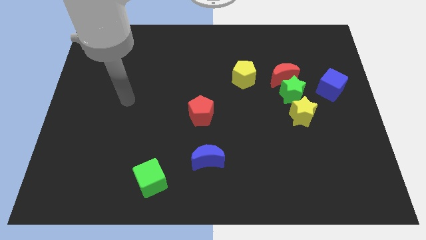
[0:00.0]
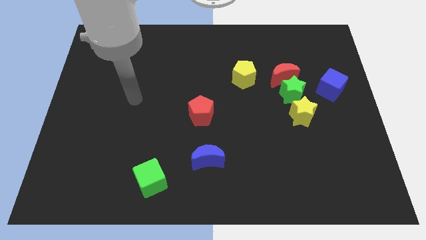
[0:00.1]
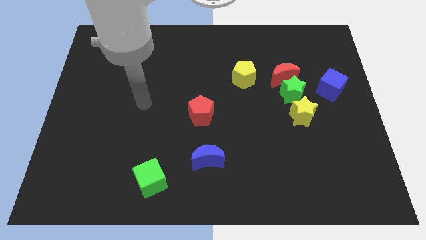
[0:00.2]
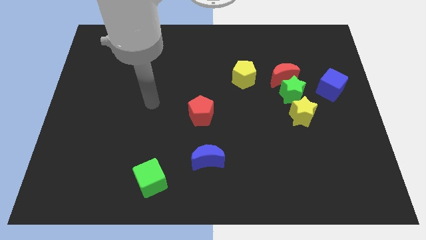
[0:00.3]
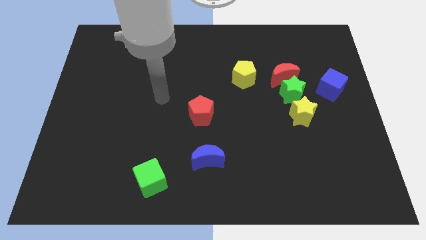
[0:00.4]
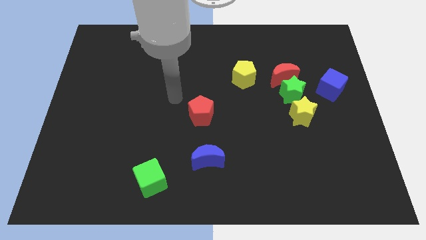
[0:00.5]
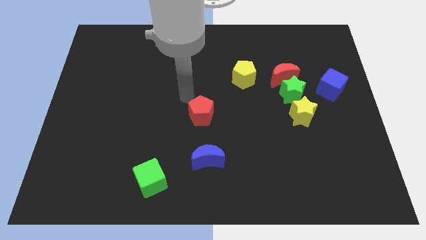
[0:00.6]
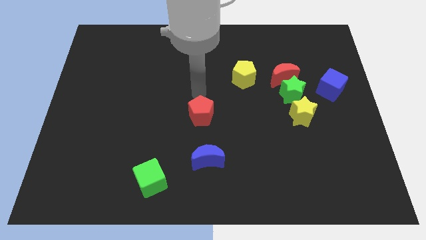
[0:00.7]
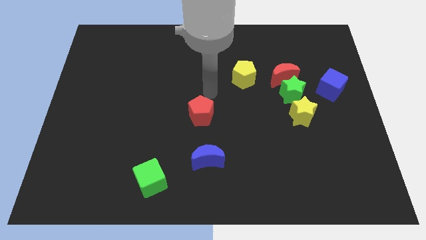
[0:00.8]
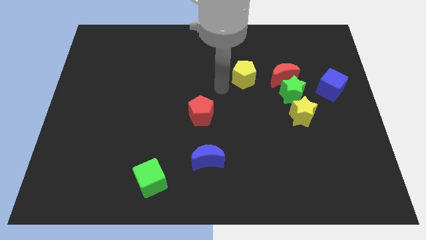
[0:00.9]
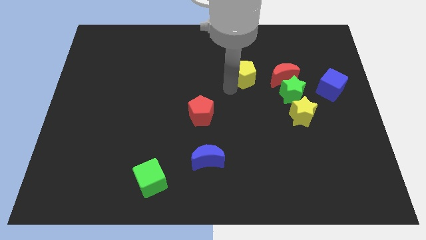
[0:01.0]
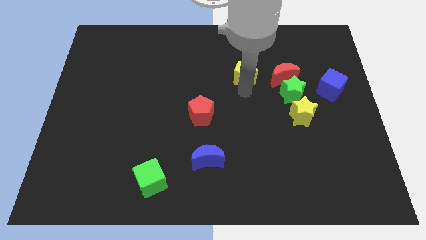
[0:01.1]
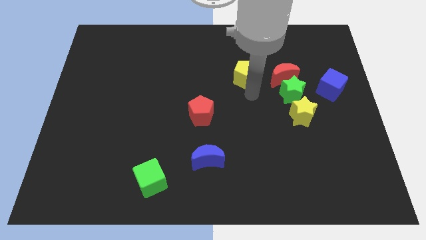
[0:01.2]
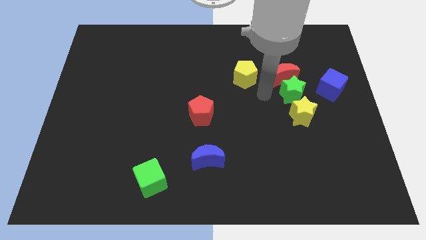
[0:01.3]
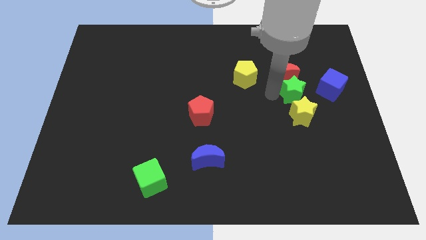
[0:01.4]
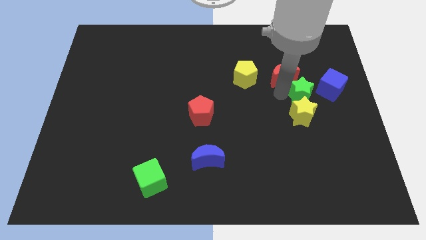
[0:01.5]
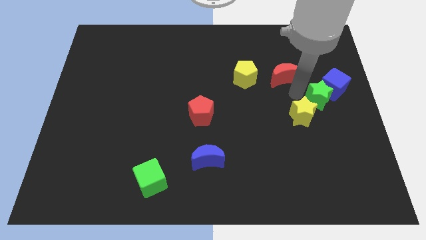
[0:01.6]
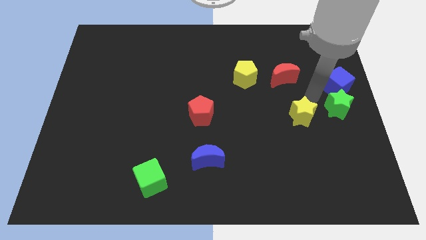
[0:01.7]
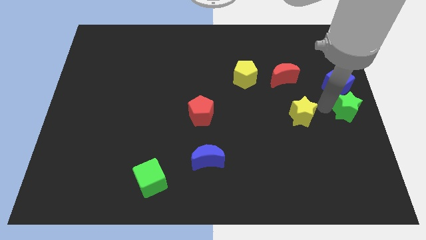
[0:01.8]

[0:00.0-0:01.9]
pull the yellow star apart from the green star

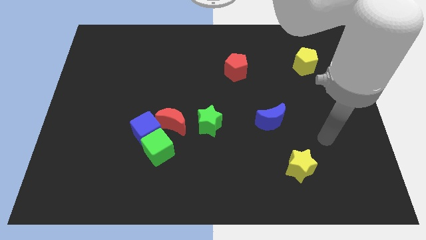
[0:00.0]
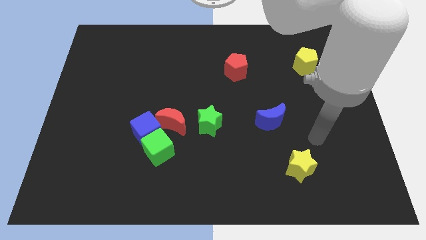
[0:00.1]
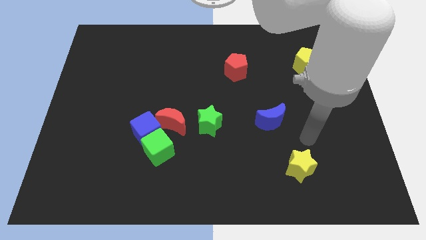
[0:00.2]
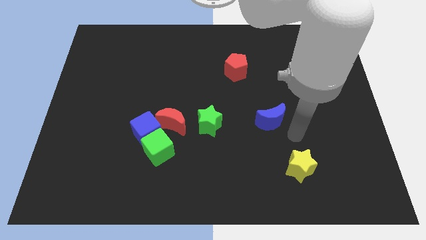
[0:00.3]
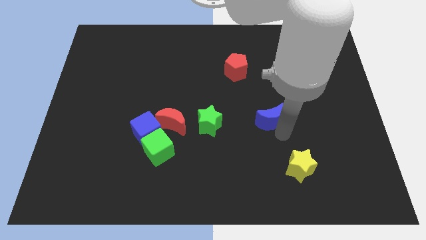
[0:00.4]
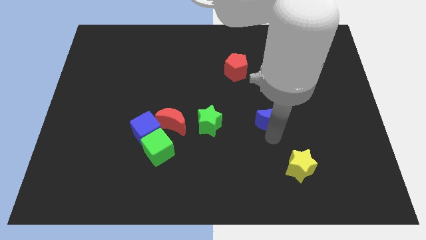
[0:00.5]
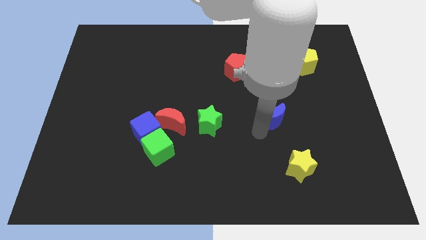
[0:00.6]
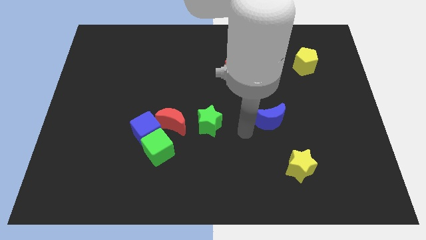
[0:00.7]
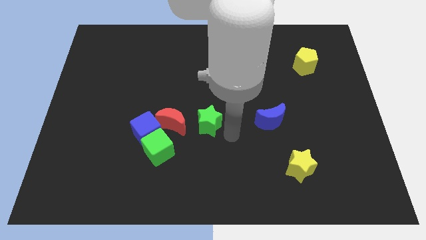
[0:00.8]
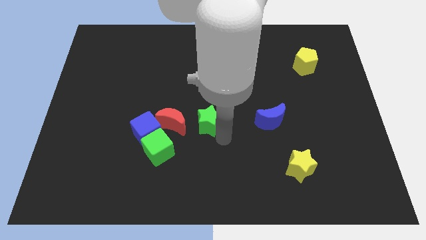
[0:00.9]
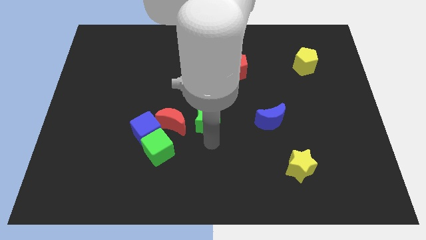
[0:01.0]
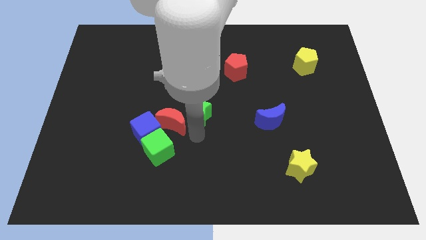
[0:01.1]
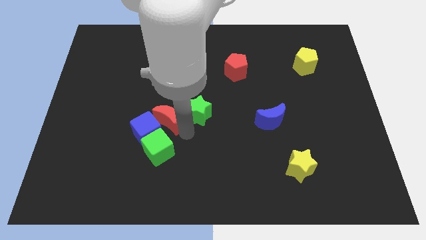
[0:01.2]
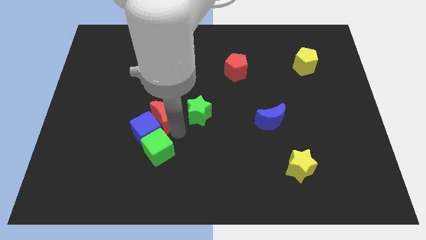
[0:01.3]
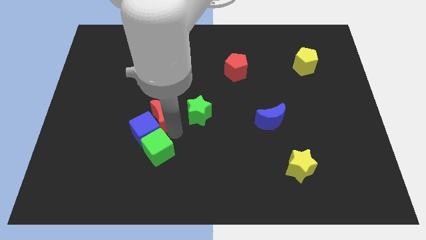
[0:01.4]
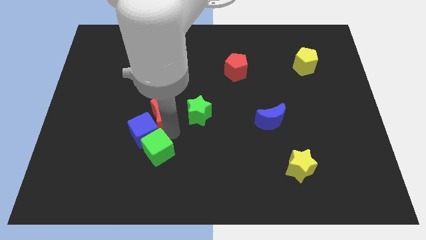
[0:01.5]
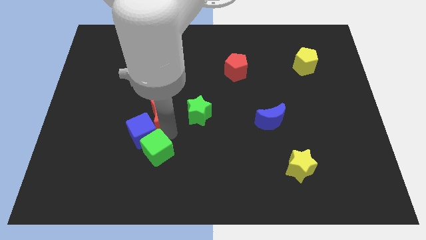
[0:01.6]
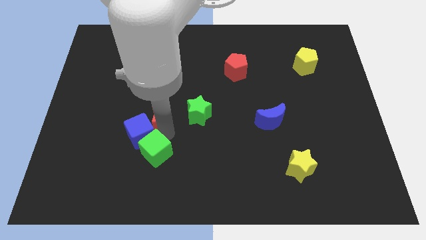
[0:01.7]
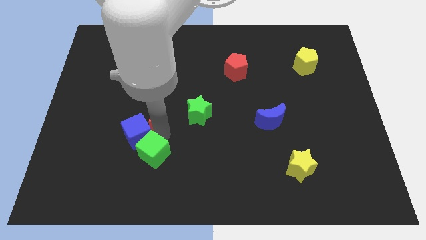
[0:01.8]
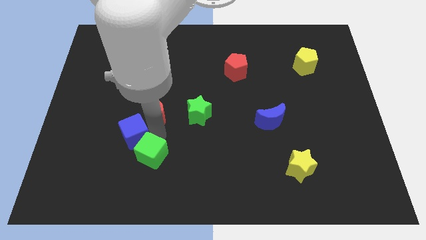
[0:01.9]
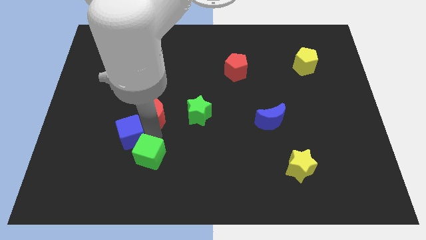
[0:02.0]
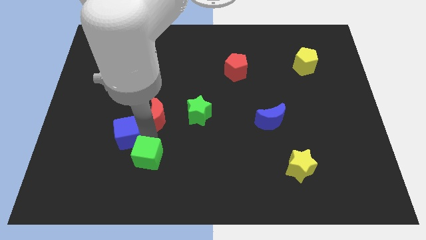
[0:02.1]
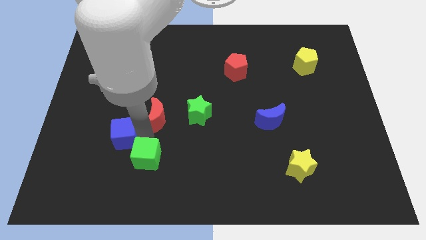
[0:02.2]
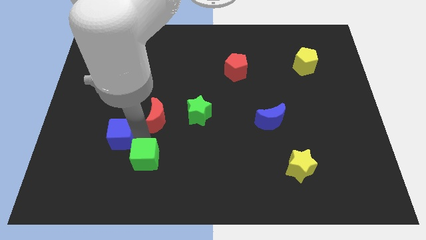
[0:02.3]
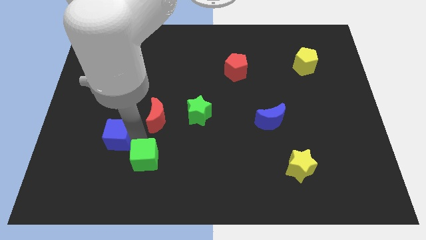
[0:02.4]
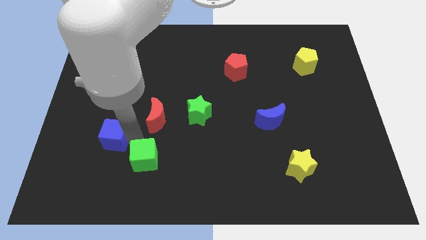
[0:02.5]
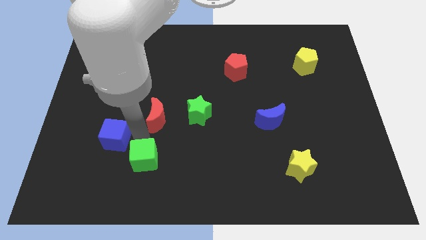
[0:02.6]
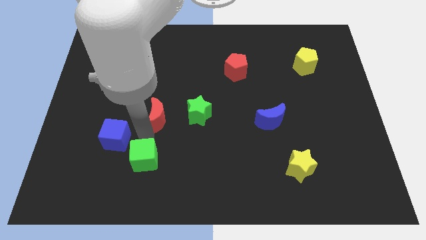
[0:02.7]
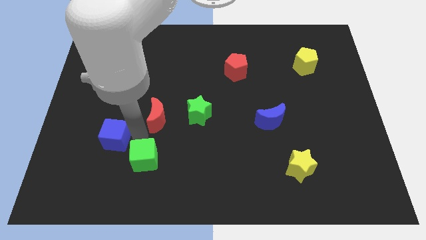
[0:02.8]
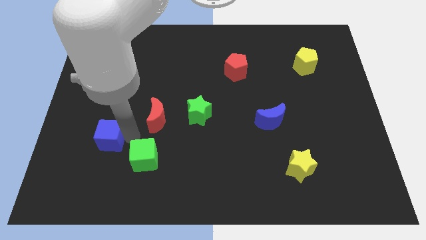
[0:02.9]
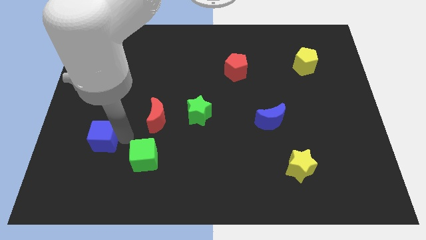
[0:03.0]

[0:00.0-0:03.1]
move the blue cube away from the green cube and red moon

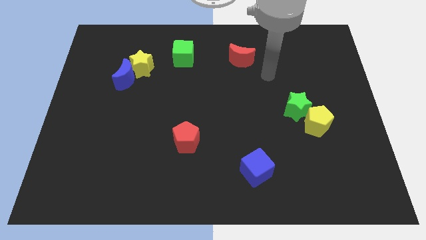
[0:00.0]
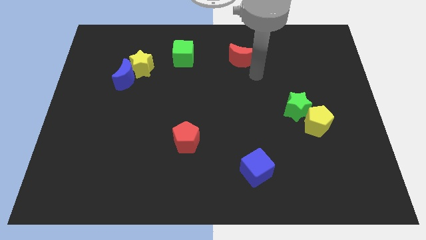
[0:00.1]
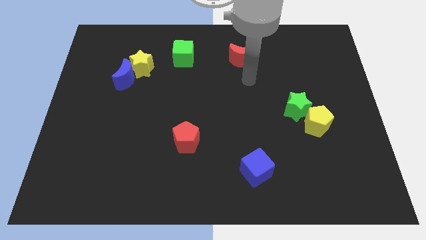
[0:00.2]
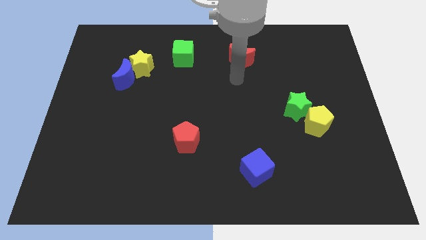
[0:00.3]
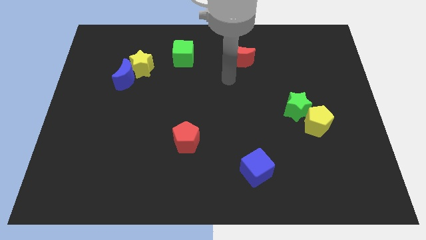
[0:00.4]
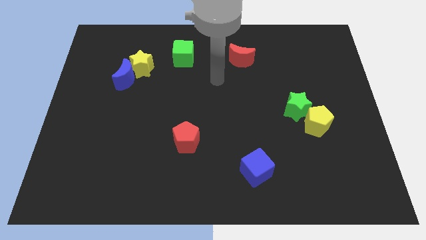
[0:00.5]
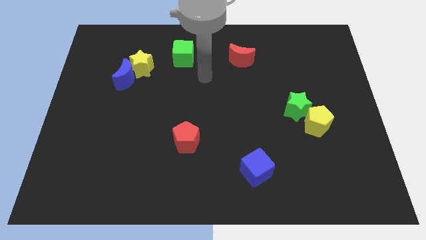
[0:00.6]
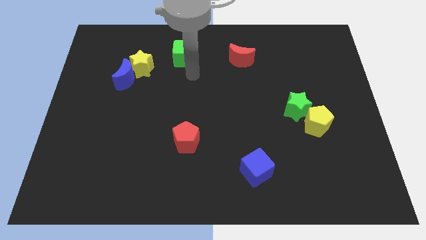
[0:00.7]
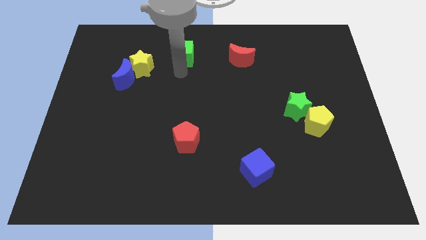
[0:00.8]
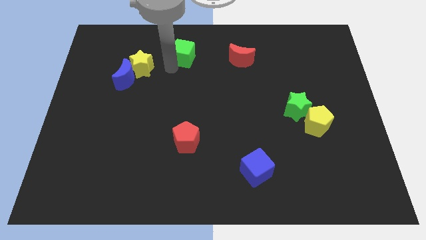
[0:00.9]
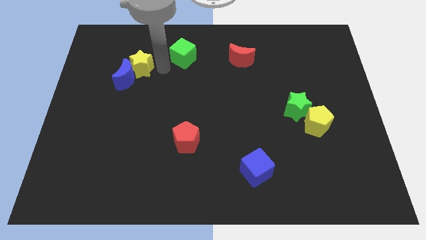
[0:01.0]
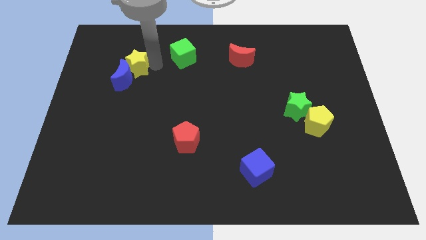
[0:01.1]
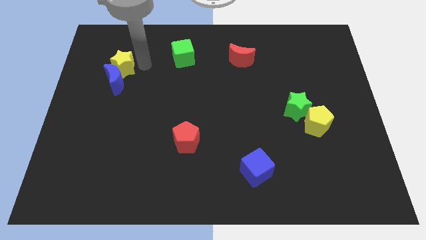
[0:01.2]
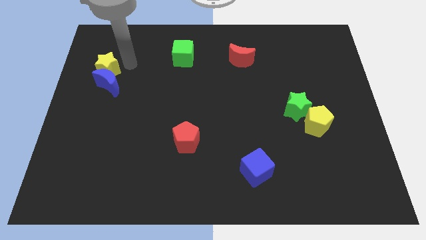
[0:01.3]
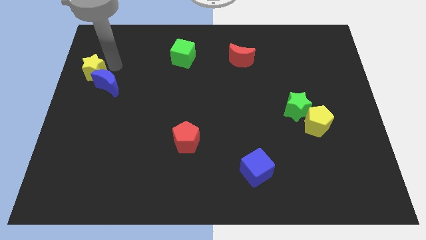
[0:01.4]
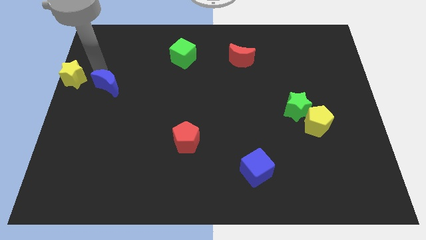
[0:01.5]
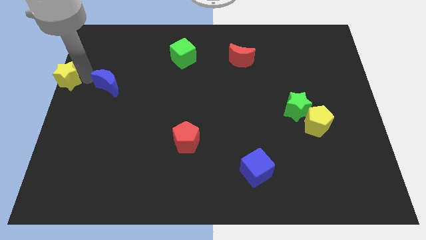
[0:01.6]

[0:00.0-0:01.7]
pull the blue moon apart from the yellow star

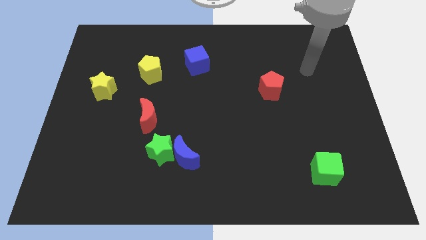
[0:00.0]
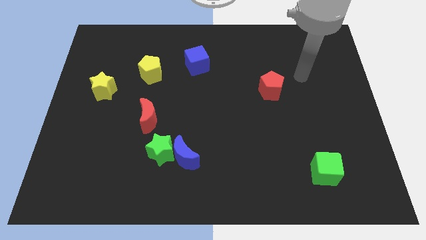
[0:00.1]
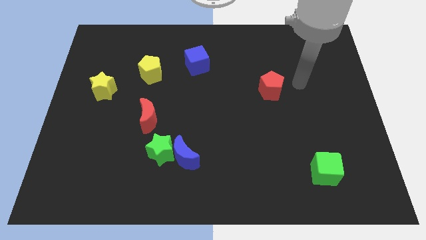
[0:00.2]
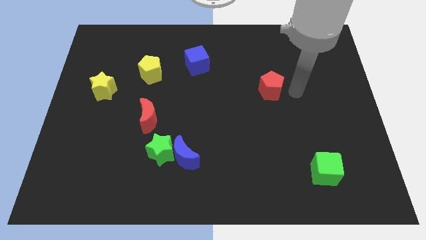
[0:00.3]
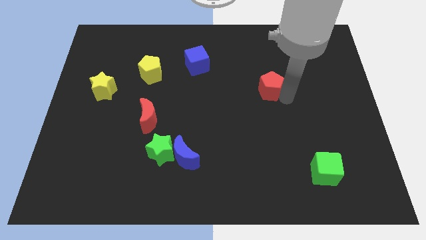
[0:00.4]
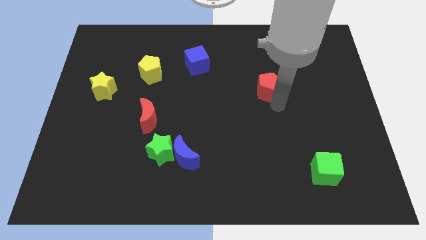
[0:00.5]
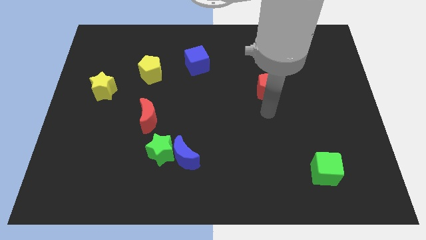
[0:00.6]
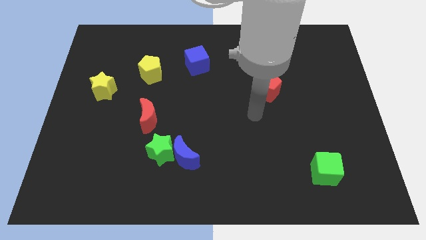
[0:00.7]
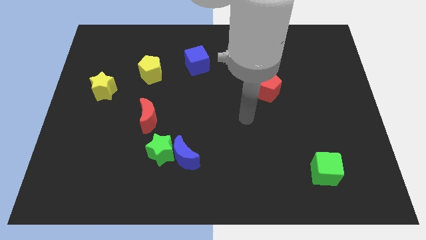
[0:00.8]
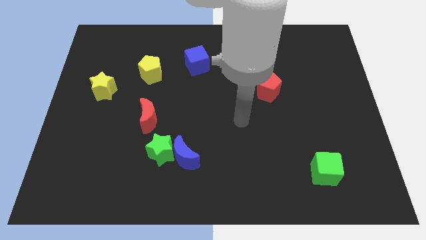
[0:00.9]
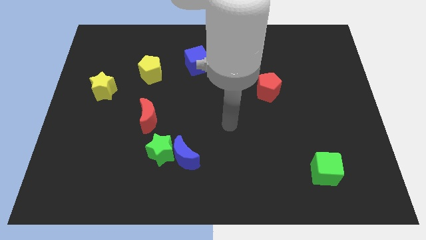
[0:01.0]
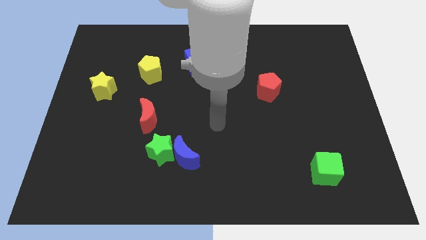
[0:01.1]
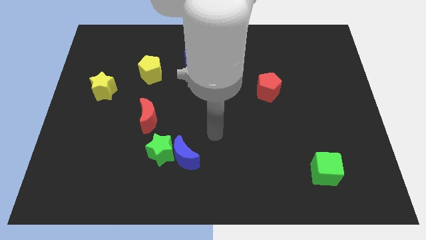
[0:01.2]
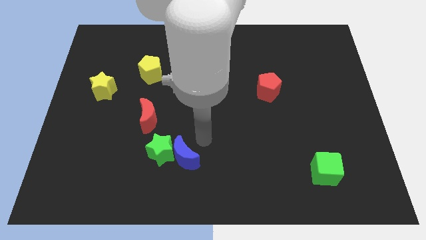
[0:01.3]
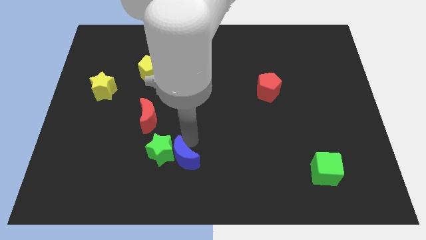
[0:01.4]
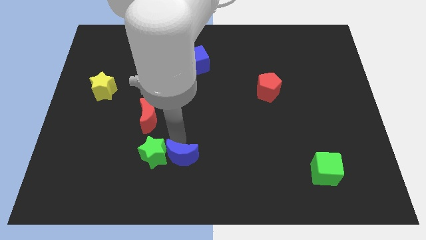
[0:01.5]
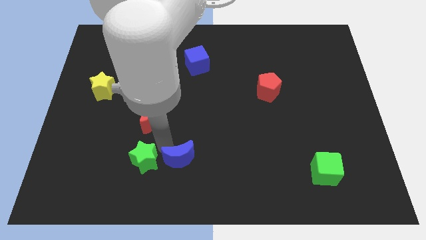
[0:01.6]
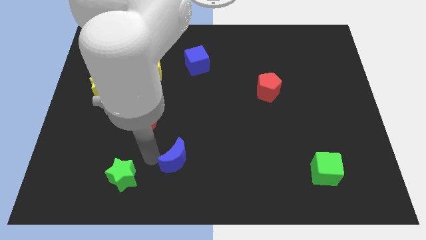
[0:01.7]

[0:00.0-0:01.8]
separate the blue moon from the green star

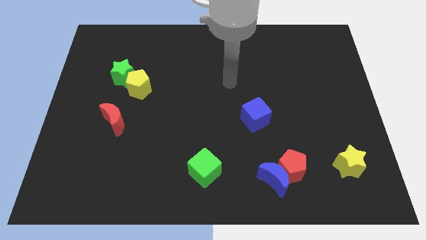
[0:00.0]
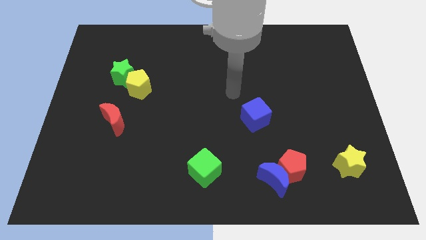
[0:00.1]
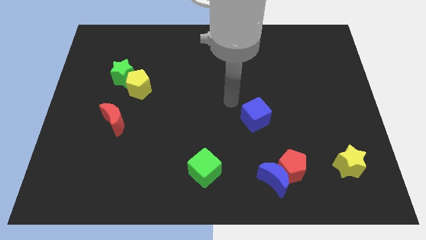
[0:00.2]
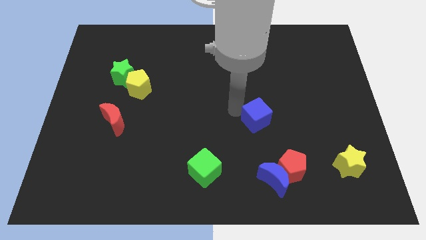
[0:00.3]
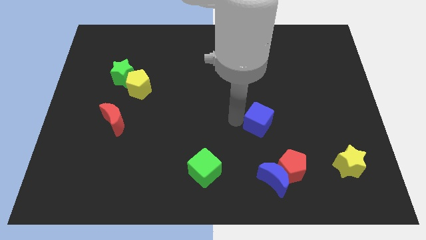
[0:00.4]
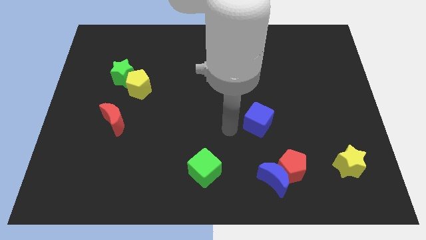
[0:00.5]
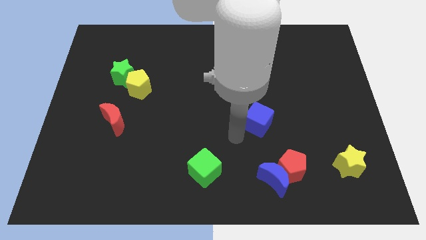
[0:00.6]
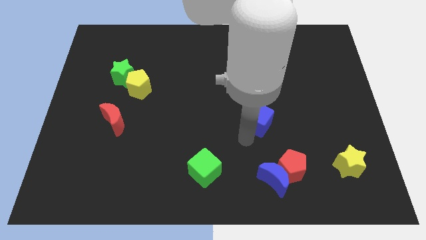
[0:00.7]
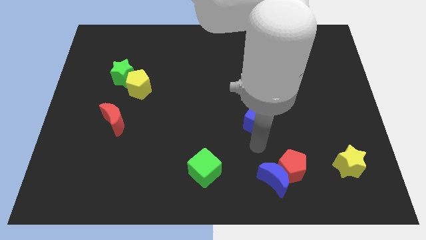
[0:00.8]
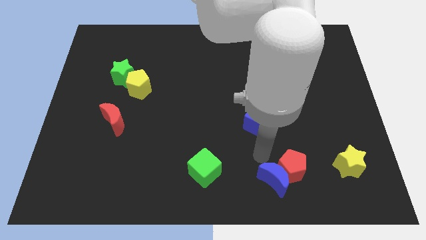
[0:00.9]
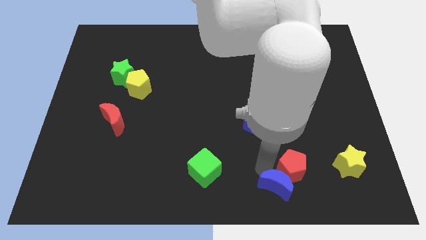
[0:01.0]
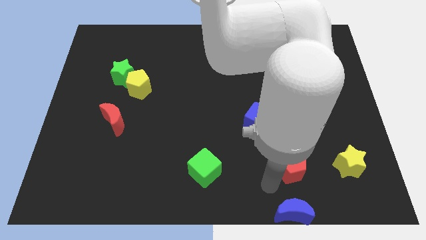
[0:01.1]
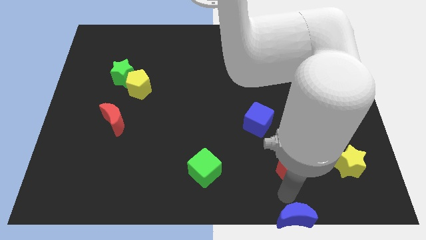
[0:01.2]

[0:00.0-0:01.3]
separate the red pentagon from the blue moon
